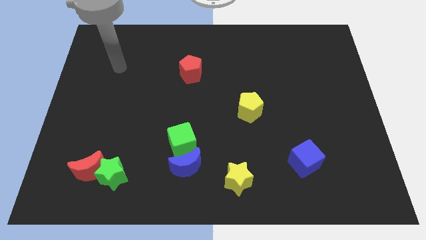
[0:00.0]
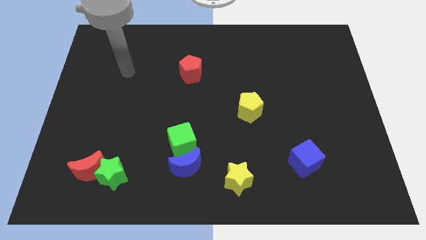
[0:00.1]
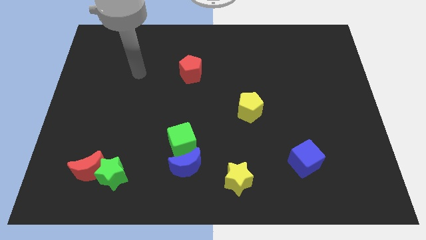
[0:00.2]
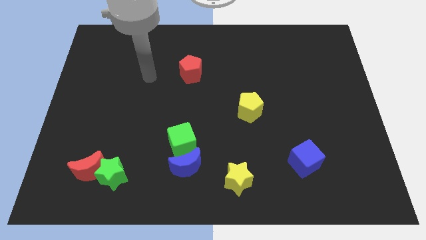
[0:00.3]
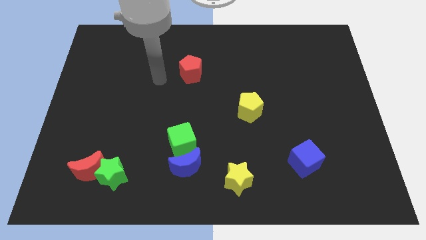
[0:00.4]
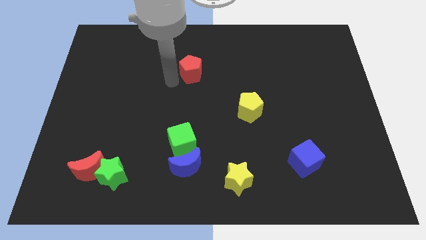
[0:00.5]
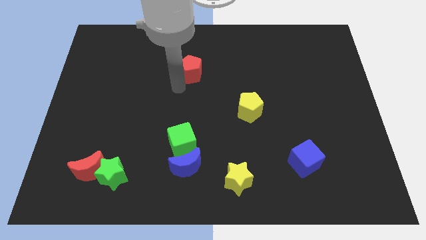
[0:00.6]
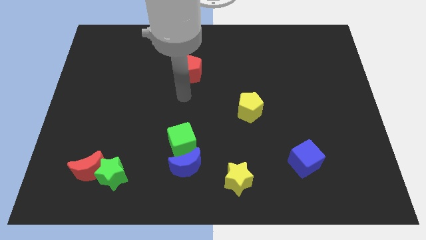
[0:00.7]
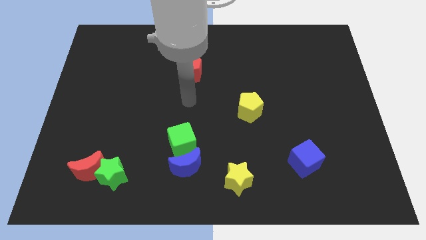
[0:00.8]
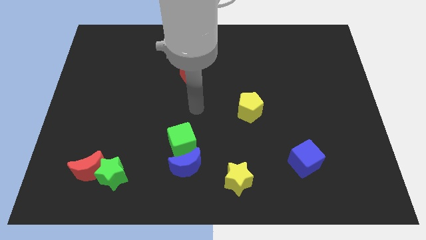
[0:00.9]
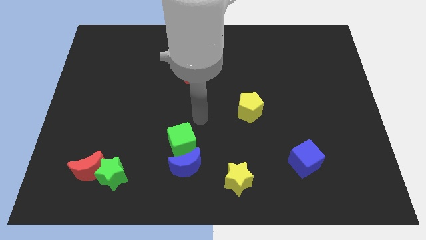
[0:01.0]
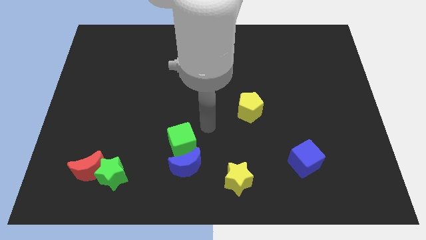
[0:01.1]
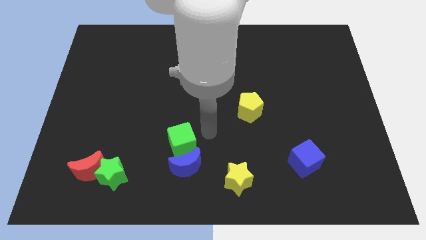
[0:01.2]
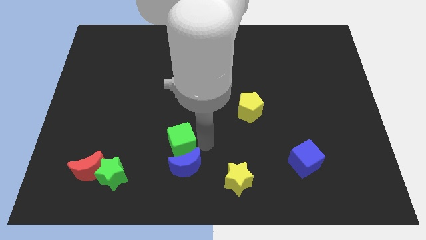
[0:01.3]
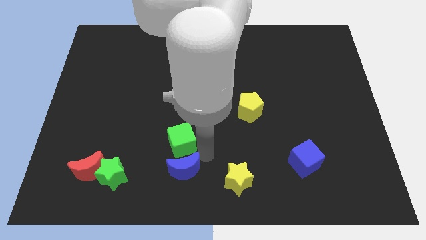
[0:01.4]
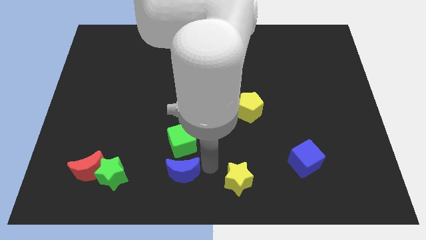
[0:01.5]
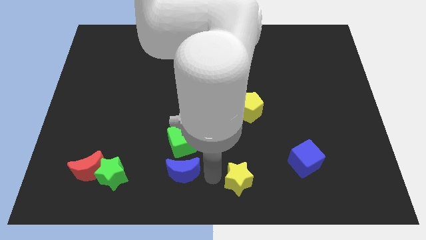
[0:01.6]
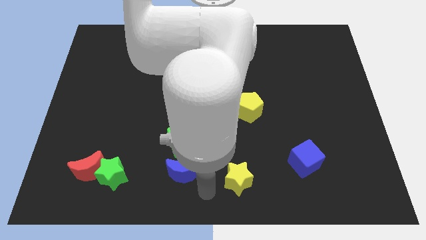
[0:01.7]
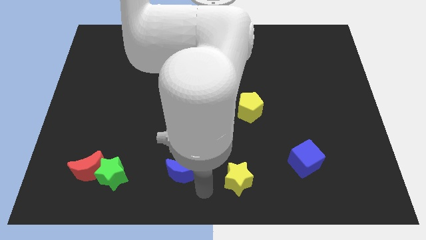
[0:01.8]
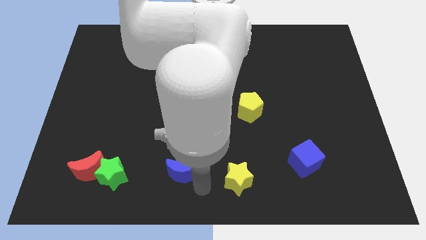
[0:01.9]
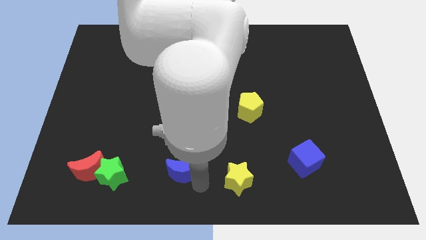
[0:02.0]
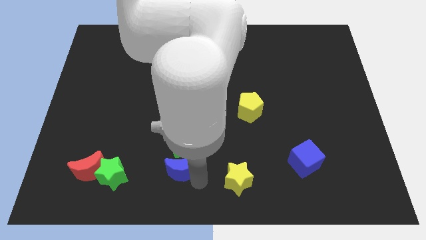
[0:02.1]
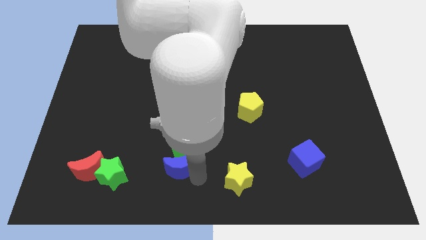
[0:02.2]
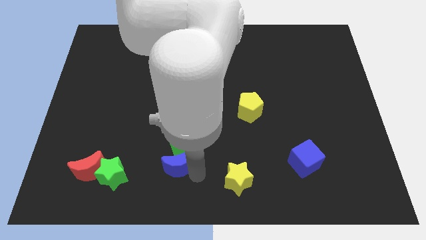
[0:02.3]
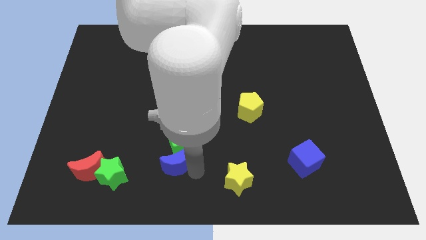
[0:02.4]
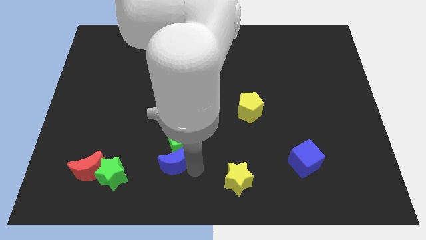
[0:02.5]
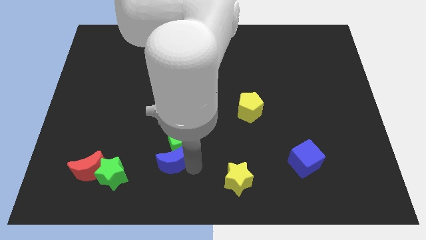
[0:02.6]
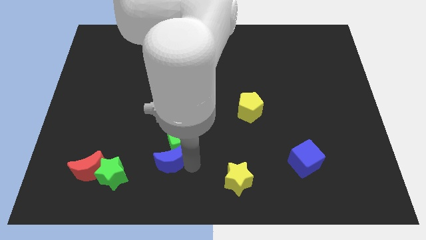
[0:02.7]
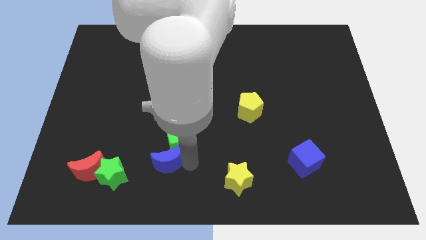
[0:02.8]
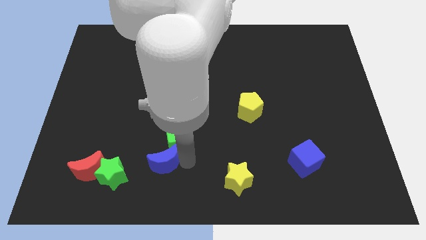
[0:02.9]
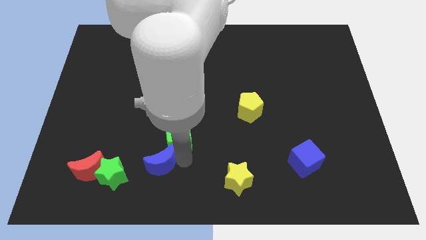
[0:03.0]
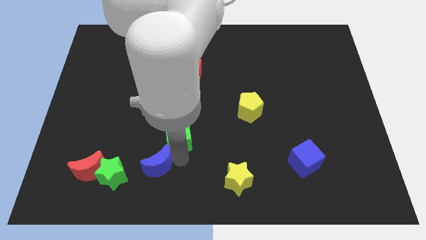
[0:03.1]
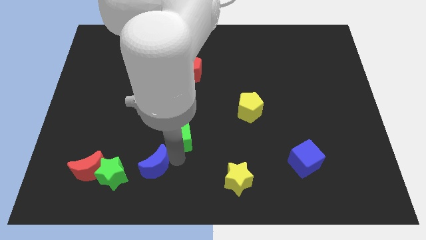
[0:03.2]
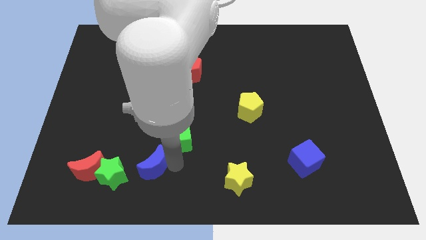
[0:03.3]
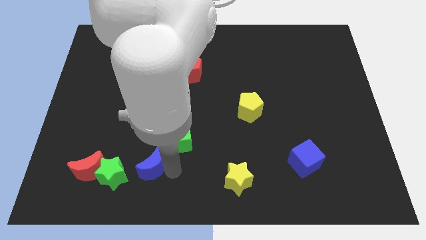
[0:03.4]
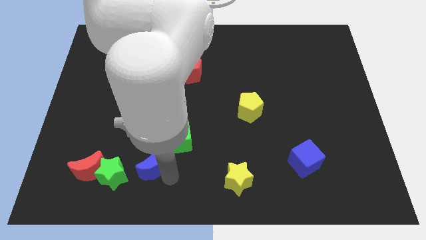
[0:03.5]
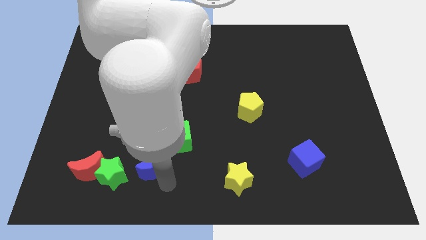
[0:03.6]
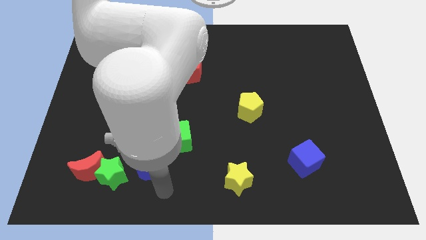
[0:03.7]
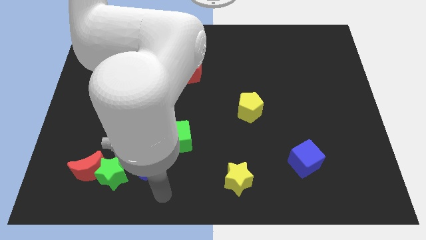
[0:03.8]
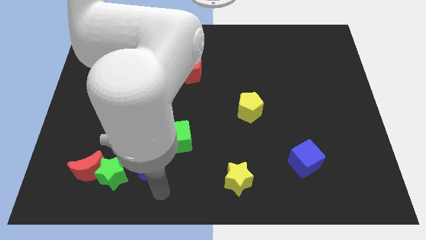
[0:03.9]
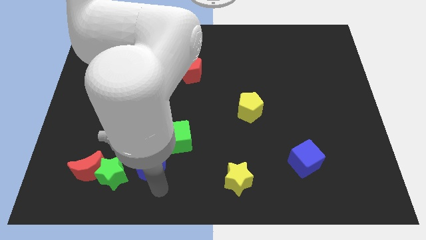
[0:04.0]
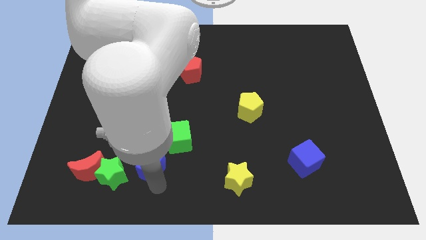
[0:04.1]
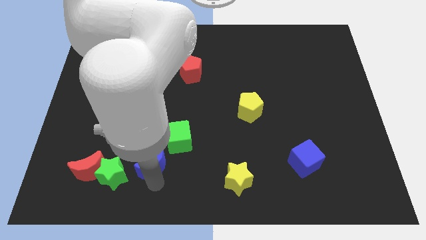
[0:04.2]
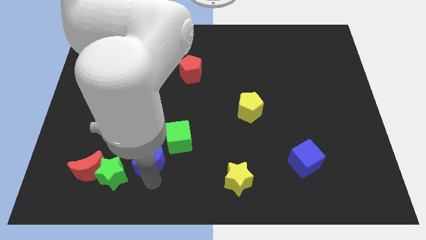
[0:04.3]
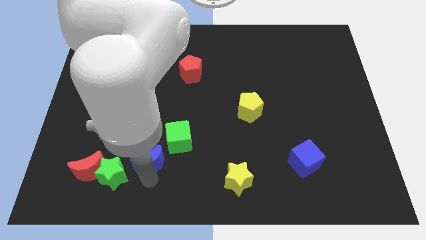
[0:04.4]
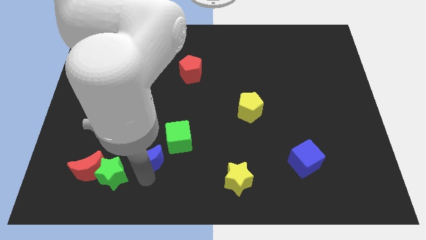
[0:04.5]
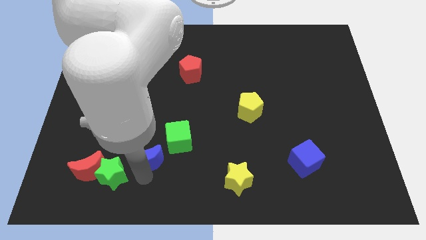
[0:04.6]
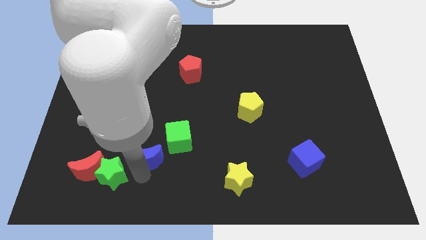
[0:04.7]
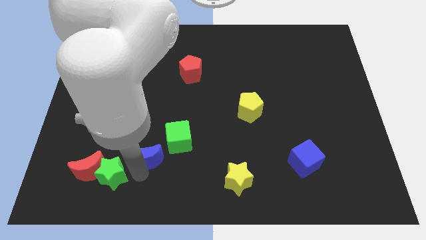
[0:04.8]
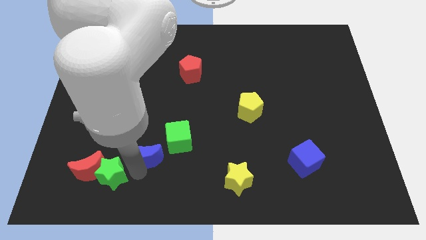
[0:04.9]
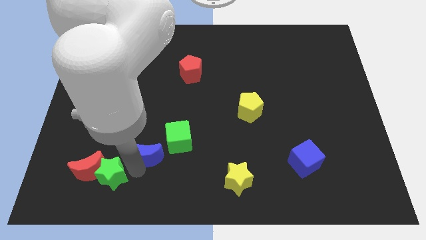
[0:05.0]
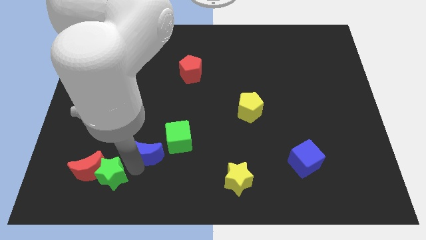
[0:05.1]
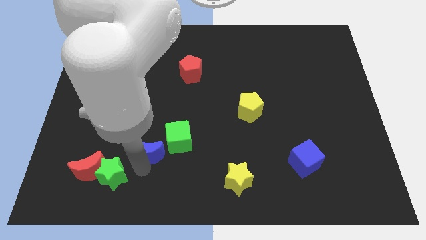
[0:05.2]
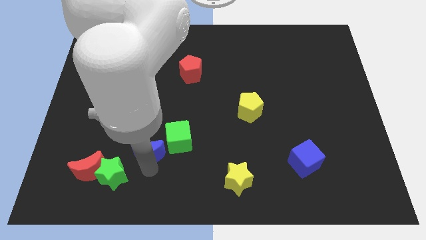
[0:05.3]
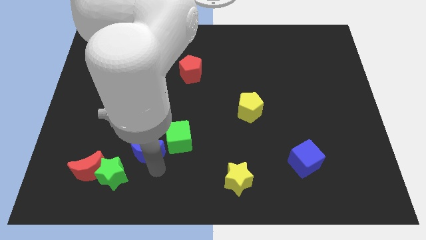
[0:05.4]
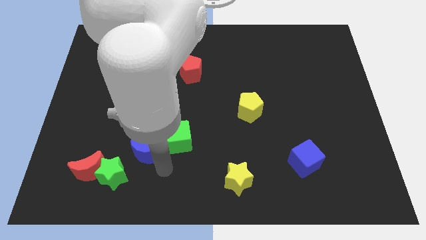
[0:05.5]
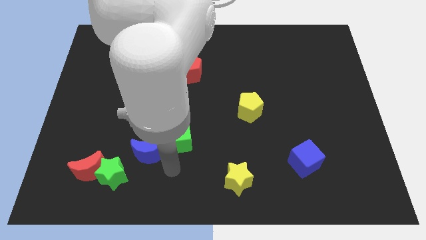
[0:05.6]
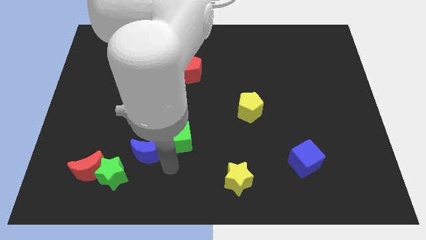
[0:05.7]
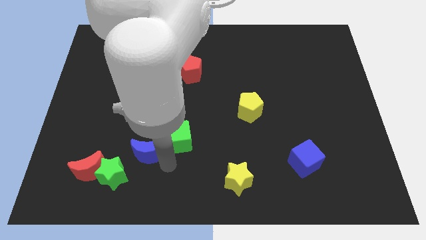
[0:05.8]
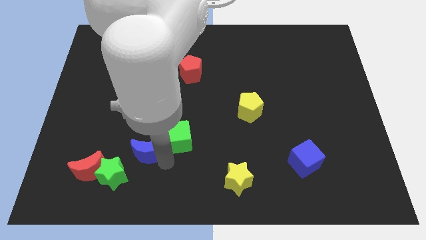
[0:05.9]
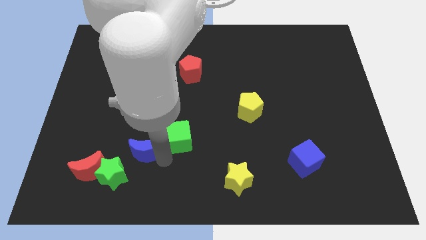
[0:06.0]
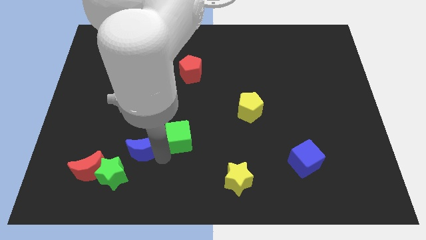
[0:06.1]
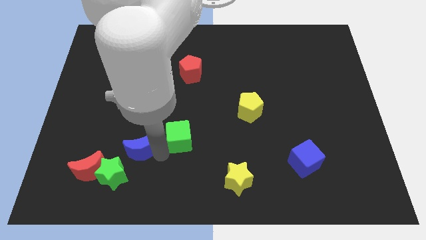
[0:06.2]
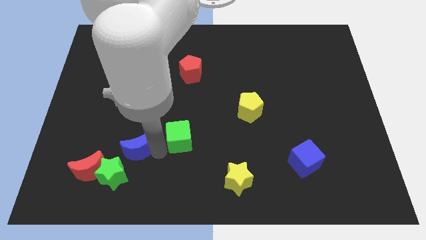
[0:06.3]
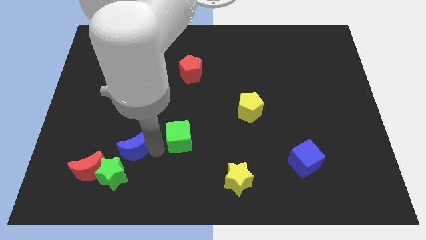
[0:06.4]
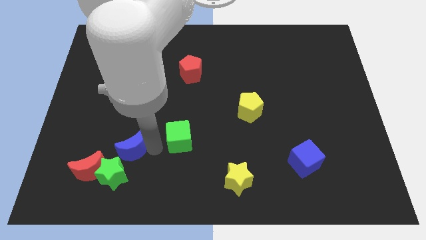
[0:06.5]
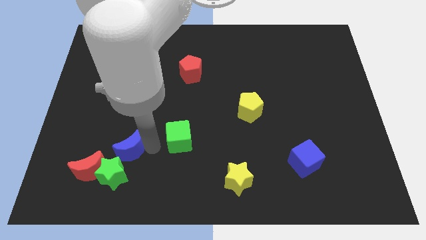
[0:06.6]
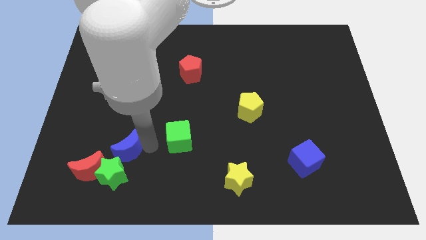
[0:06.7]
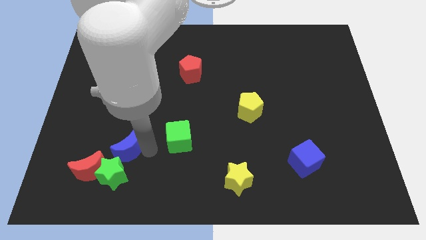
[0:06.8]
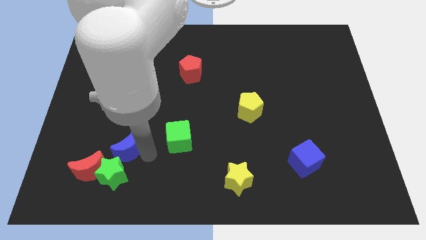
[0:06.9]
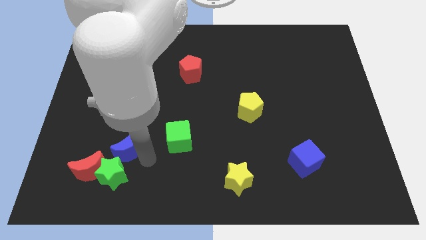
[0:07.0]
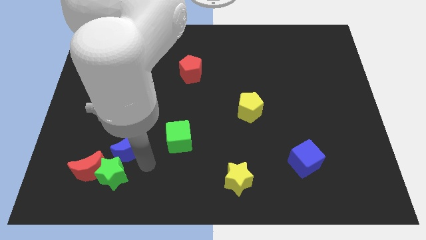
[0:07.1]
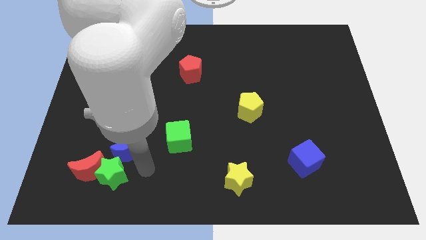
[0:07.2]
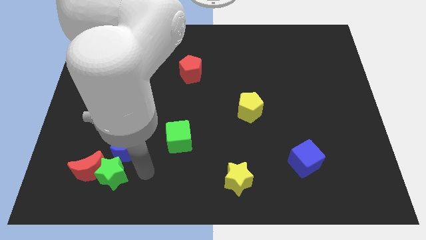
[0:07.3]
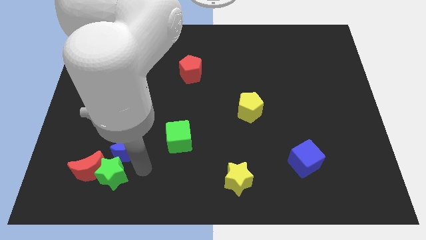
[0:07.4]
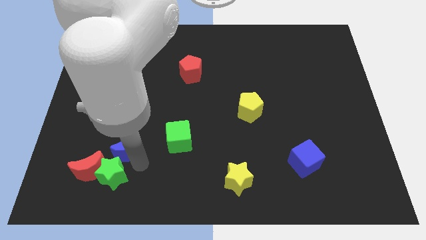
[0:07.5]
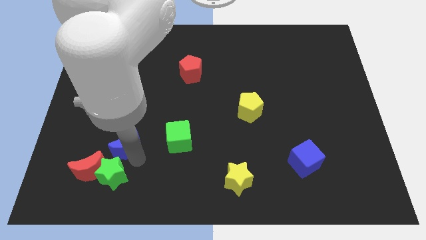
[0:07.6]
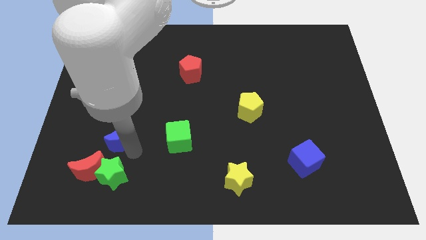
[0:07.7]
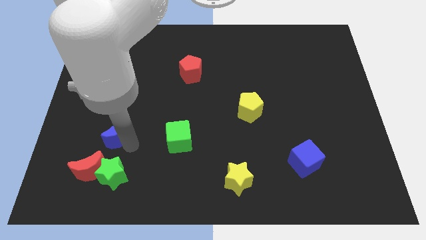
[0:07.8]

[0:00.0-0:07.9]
move the blue moon to the top side of the red moon
